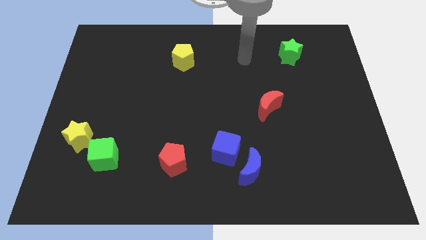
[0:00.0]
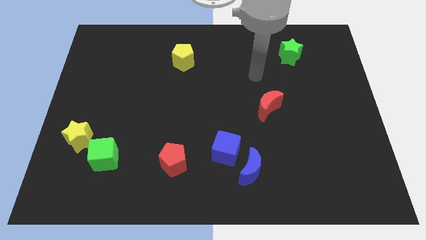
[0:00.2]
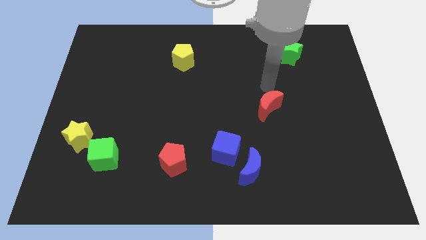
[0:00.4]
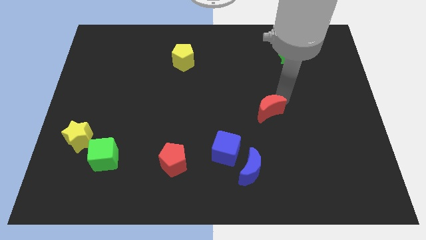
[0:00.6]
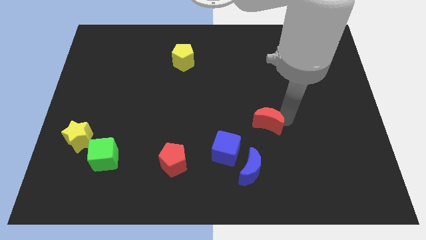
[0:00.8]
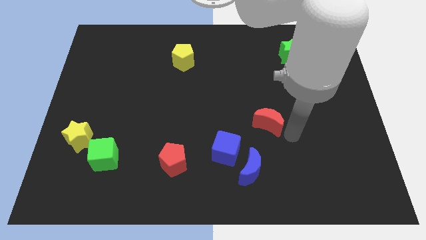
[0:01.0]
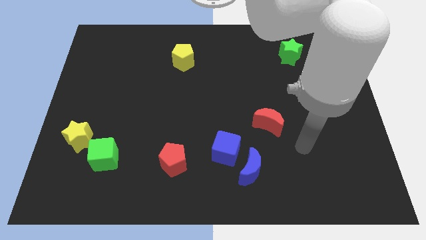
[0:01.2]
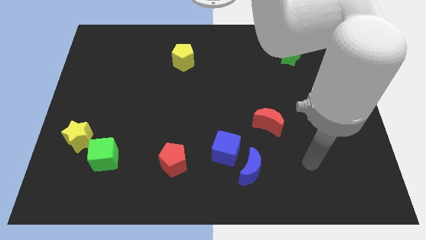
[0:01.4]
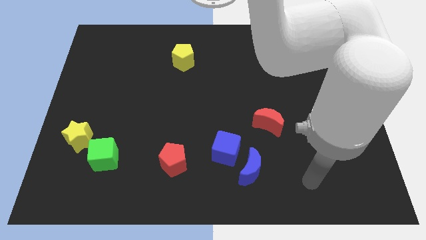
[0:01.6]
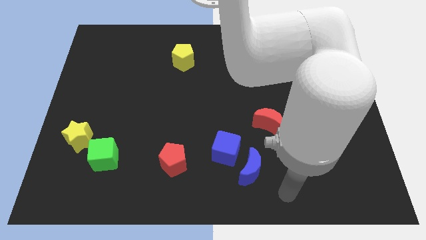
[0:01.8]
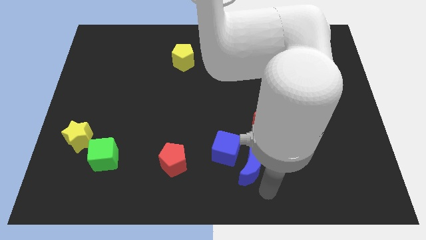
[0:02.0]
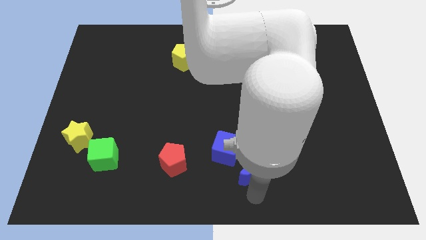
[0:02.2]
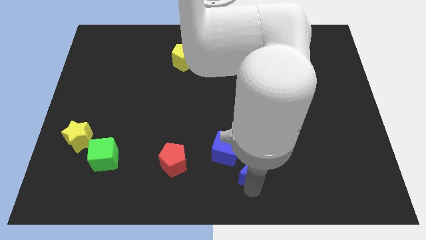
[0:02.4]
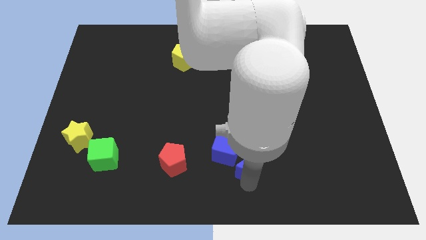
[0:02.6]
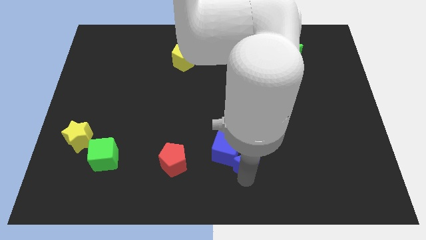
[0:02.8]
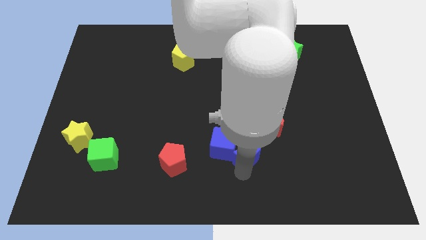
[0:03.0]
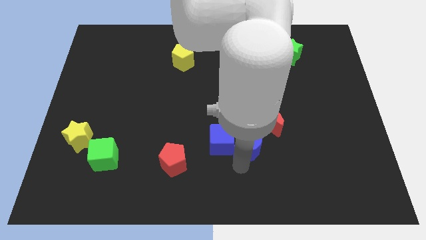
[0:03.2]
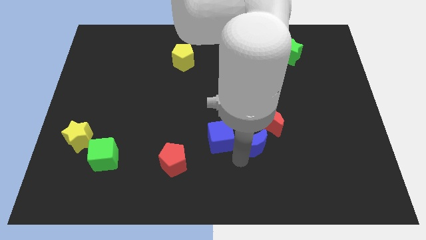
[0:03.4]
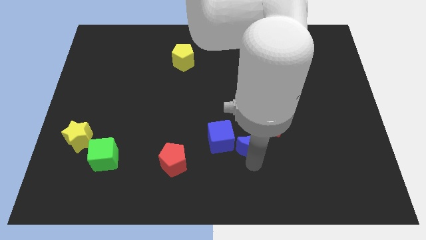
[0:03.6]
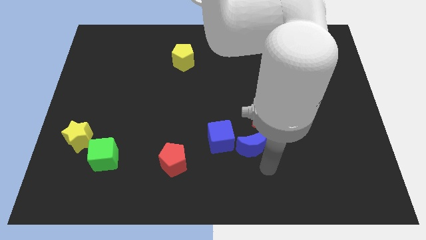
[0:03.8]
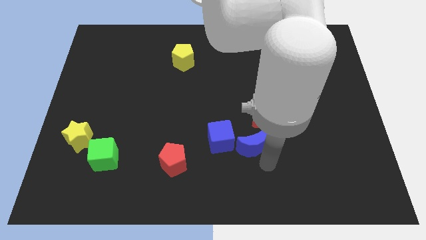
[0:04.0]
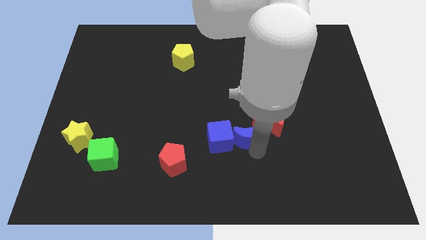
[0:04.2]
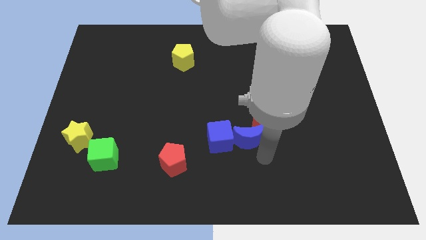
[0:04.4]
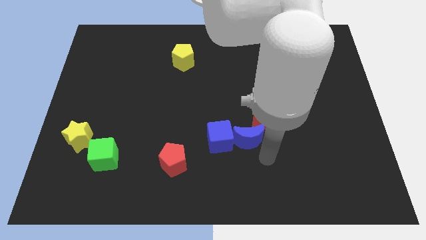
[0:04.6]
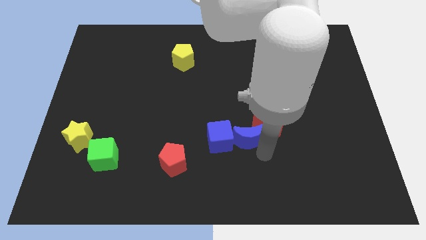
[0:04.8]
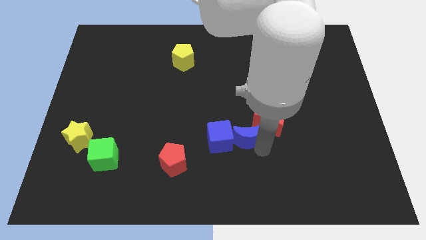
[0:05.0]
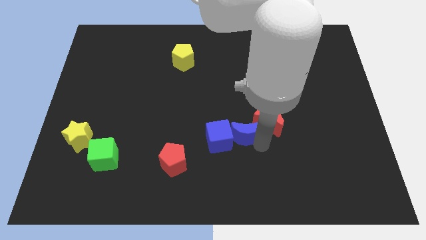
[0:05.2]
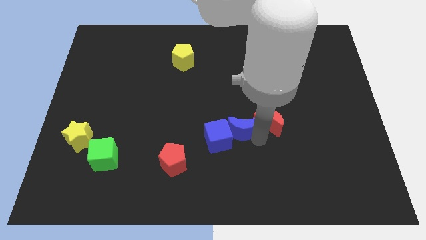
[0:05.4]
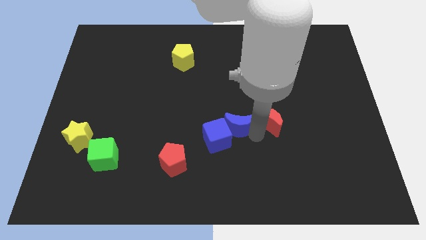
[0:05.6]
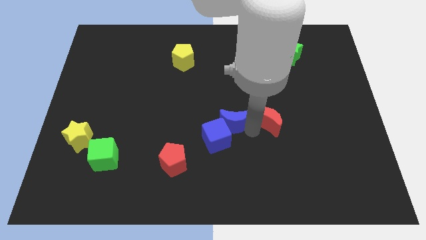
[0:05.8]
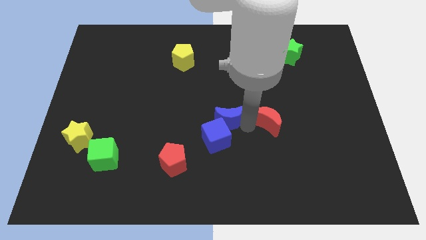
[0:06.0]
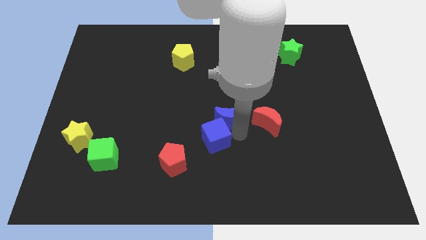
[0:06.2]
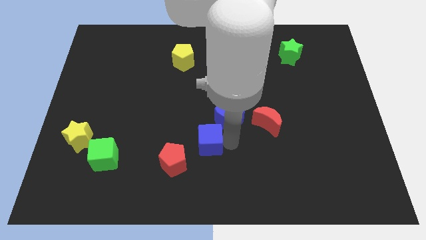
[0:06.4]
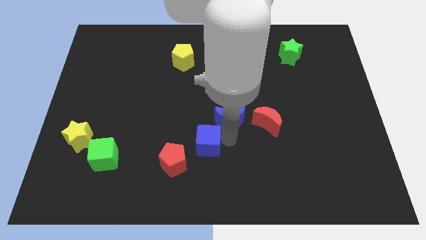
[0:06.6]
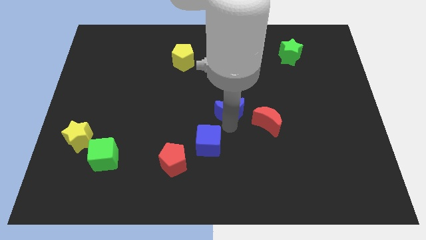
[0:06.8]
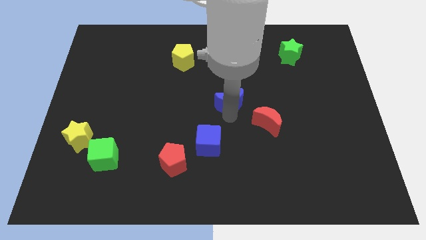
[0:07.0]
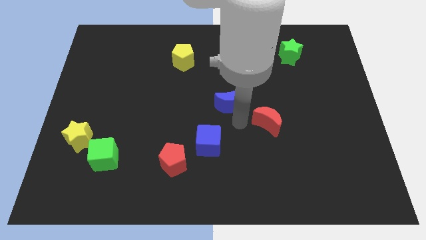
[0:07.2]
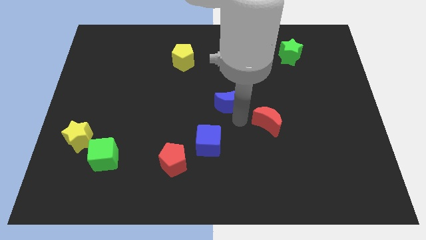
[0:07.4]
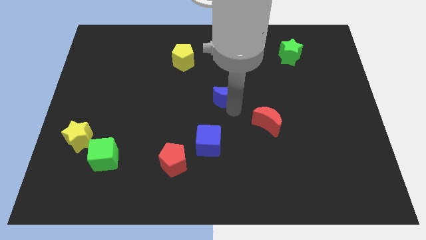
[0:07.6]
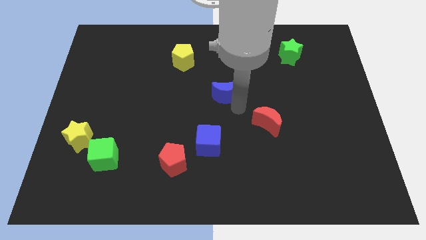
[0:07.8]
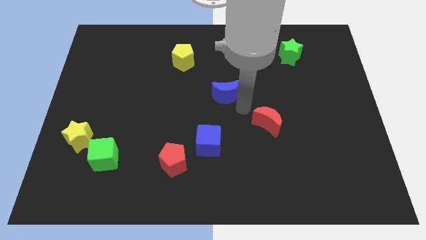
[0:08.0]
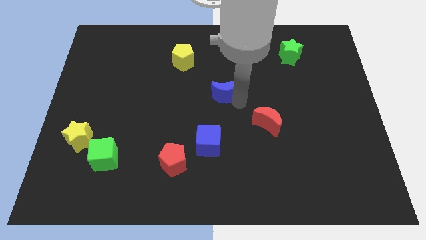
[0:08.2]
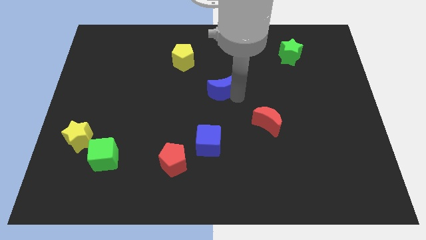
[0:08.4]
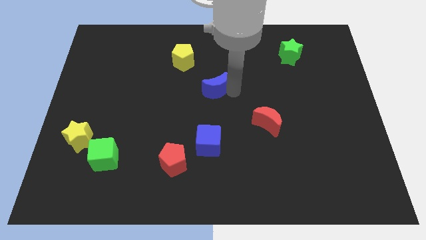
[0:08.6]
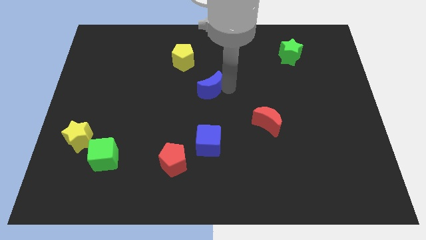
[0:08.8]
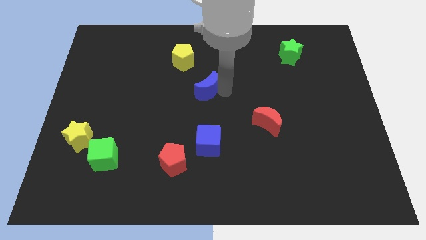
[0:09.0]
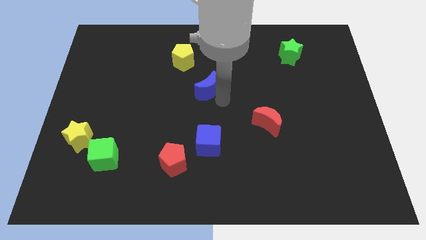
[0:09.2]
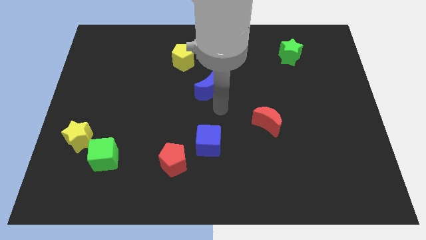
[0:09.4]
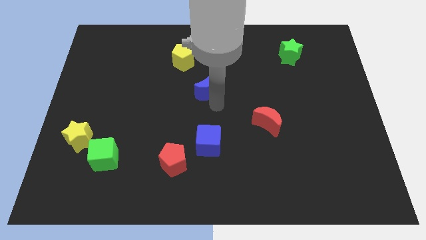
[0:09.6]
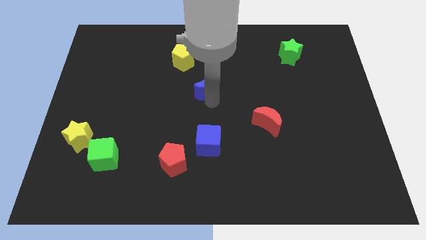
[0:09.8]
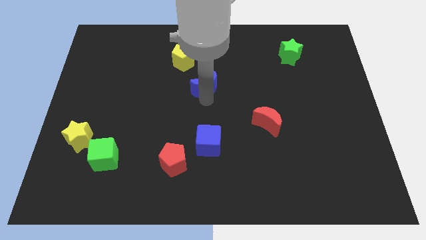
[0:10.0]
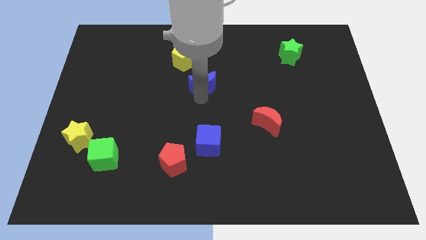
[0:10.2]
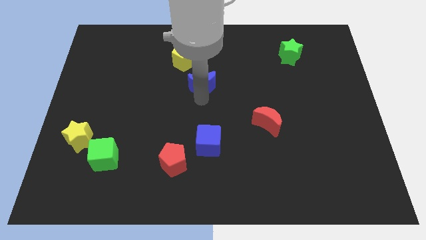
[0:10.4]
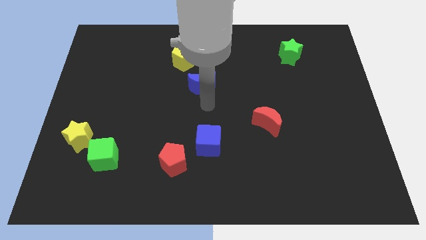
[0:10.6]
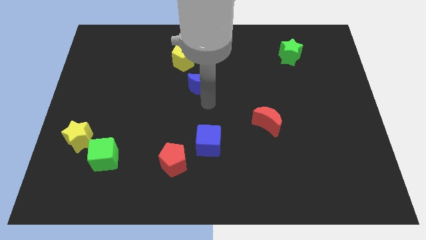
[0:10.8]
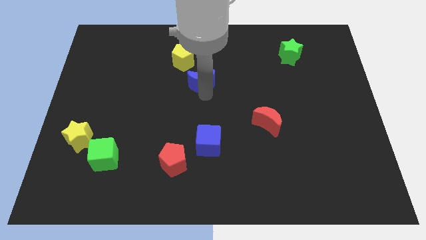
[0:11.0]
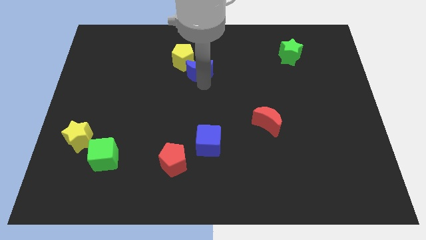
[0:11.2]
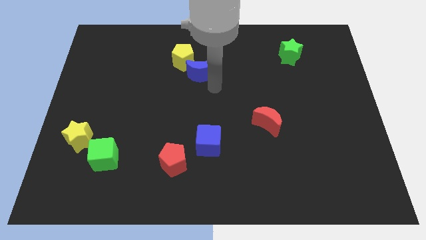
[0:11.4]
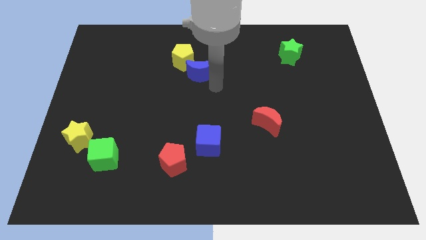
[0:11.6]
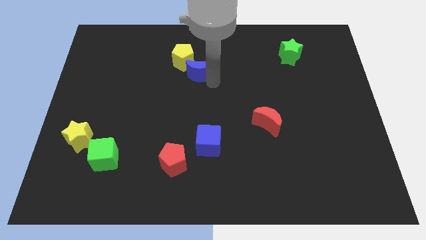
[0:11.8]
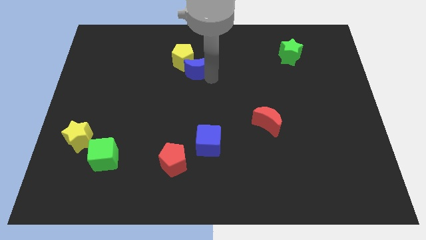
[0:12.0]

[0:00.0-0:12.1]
move the blue moon to the yellow pentagon

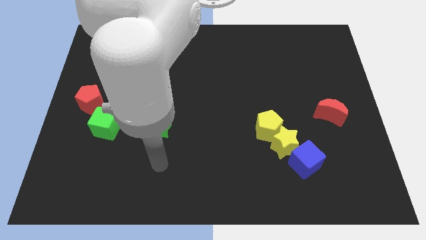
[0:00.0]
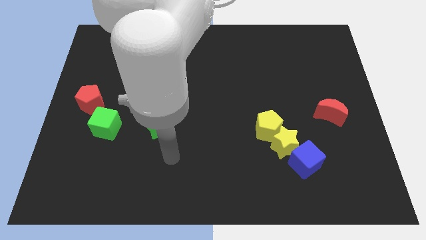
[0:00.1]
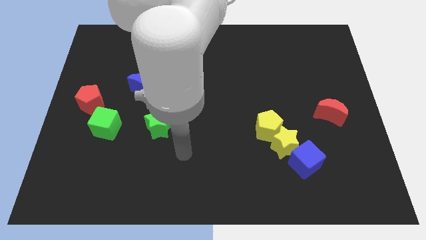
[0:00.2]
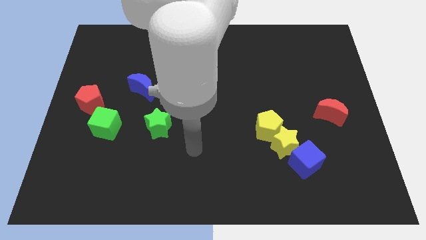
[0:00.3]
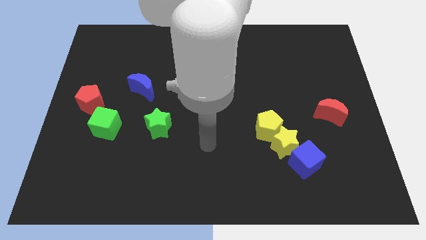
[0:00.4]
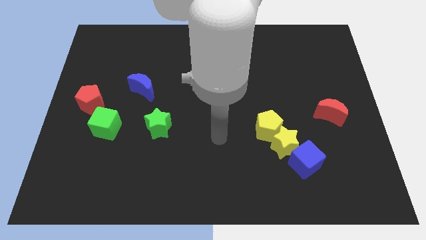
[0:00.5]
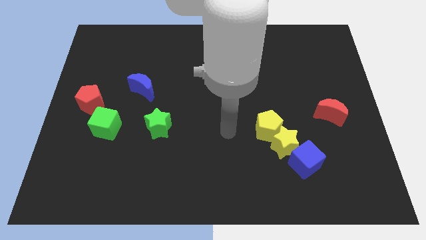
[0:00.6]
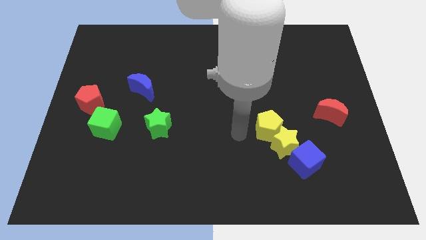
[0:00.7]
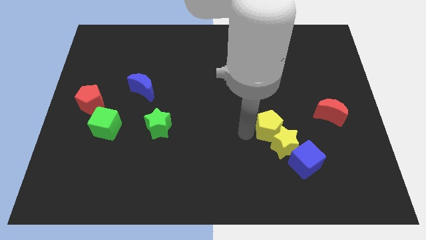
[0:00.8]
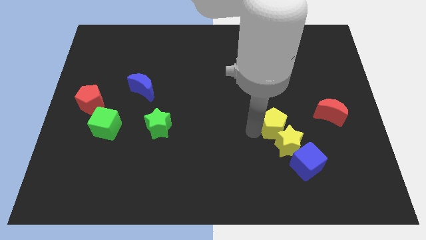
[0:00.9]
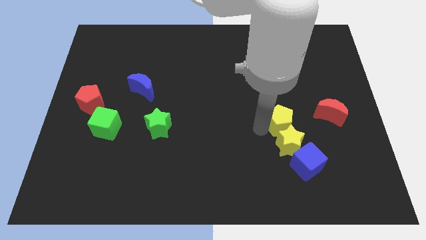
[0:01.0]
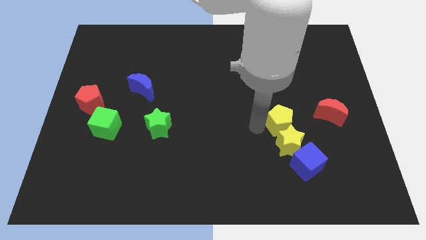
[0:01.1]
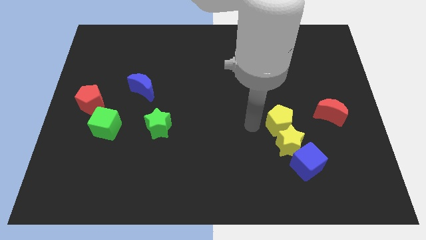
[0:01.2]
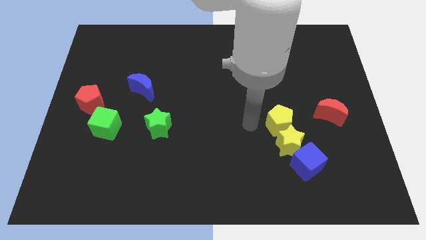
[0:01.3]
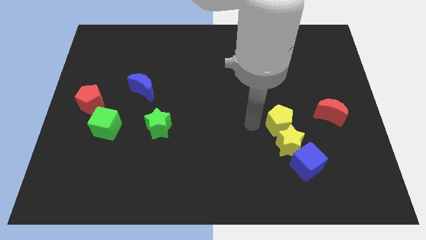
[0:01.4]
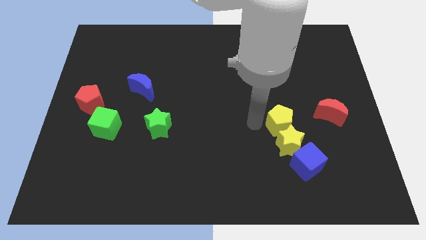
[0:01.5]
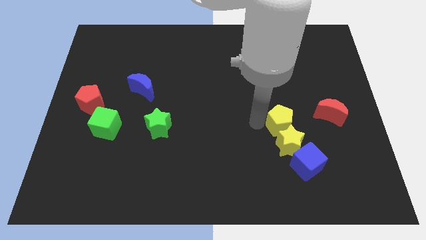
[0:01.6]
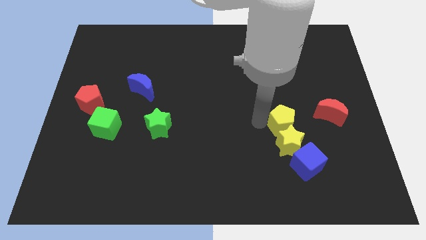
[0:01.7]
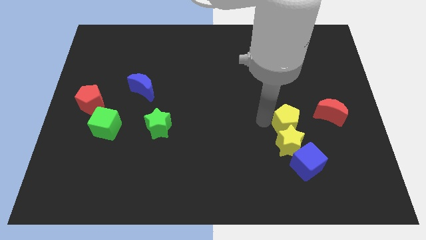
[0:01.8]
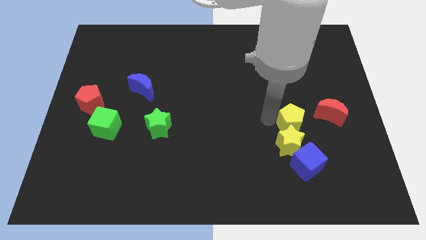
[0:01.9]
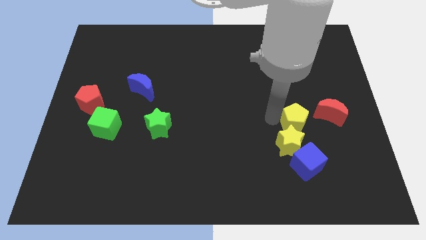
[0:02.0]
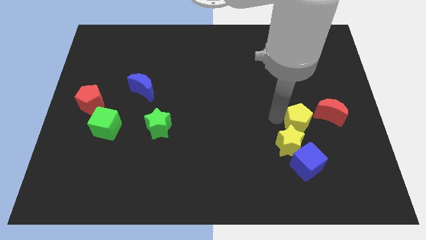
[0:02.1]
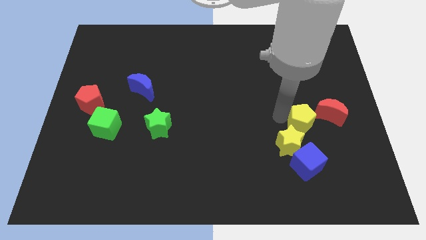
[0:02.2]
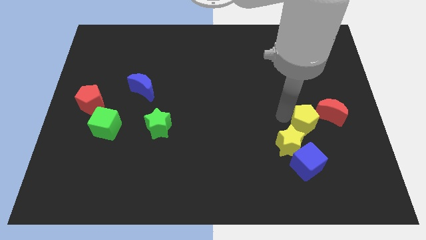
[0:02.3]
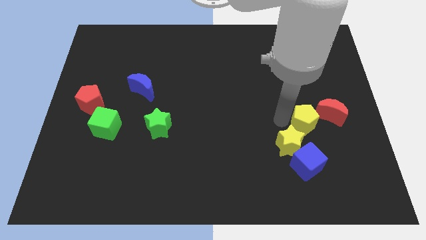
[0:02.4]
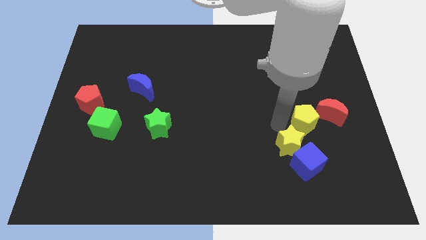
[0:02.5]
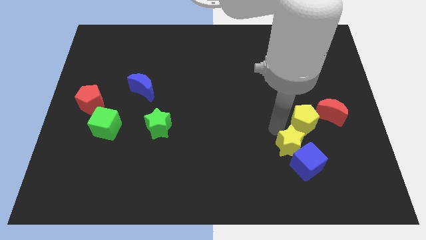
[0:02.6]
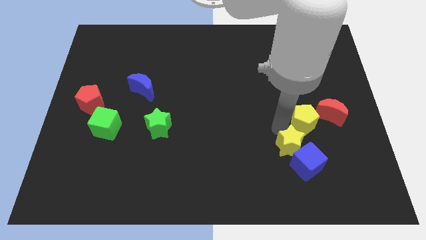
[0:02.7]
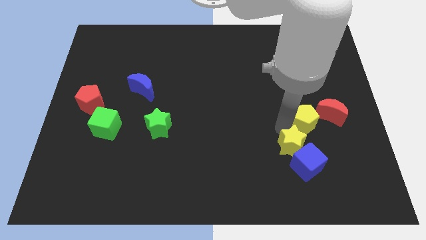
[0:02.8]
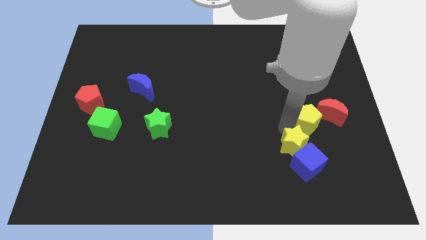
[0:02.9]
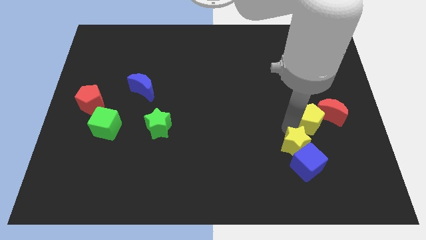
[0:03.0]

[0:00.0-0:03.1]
slide the yellow pentagon to the red moon
